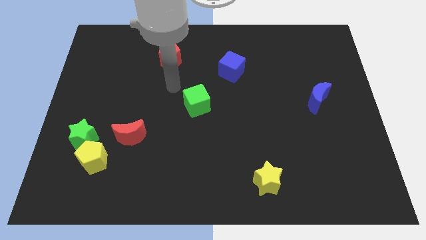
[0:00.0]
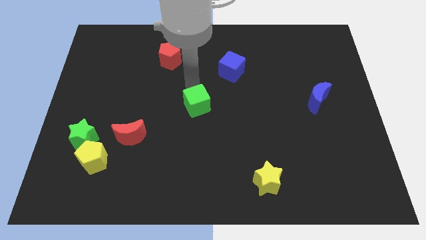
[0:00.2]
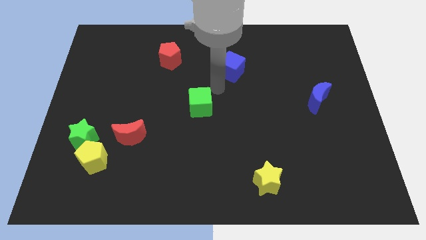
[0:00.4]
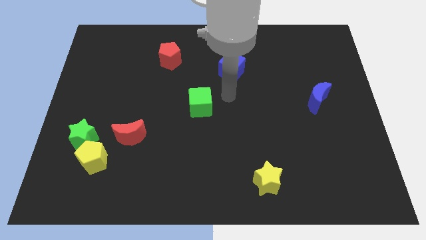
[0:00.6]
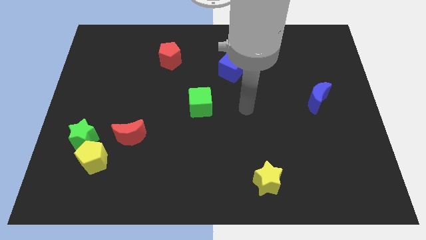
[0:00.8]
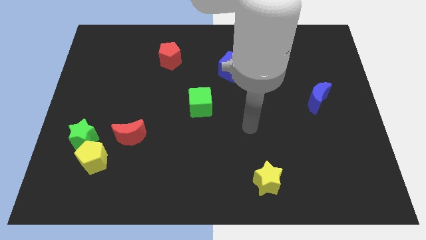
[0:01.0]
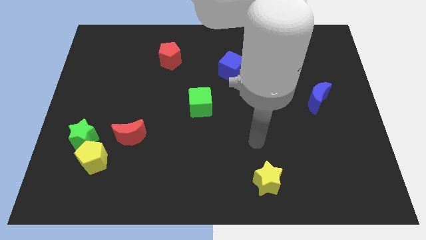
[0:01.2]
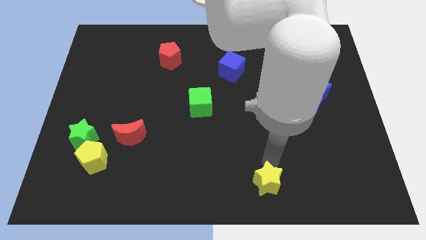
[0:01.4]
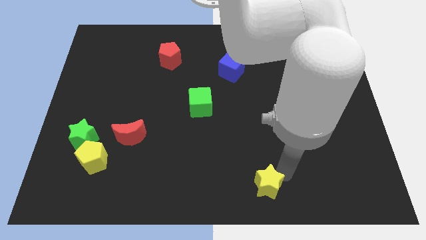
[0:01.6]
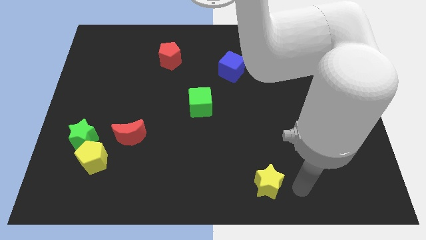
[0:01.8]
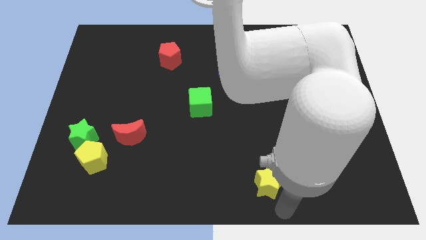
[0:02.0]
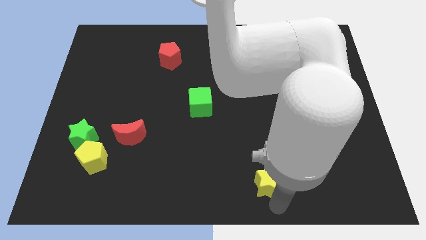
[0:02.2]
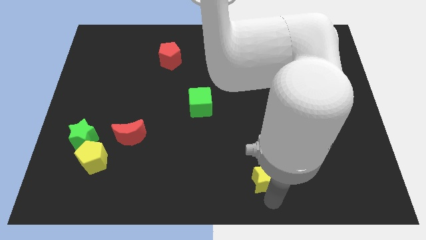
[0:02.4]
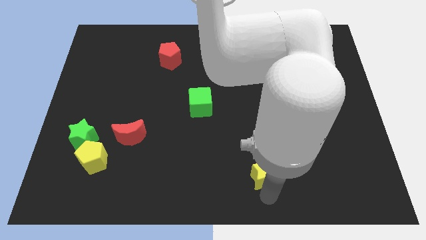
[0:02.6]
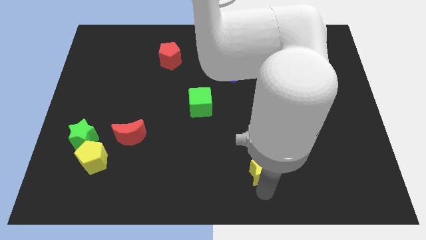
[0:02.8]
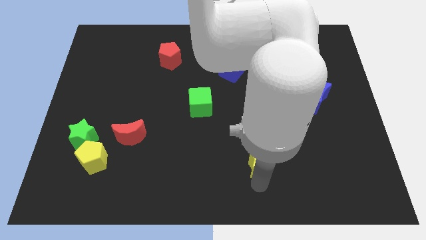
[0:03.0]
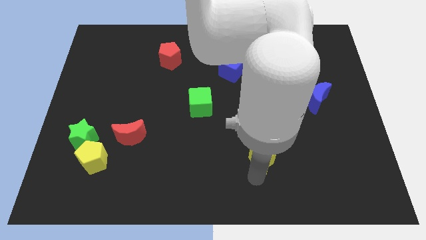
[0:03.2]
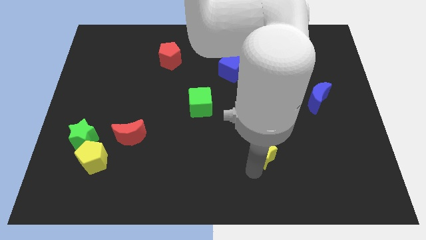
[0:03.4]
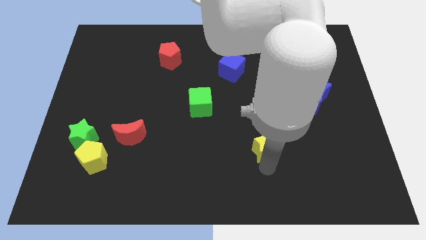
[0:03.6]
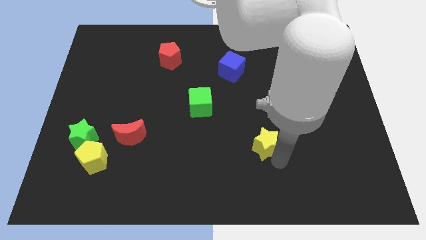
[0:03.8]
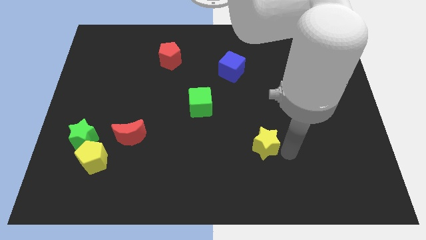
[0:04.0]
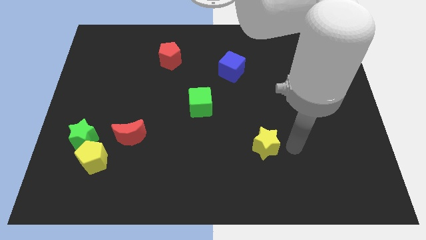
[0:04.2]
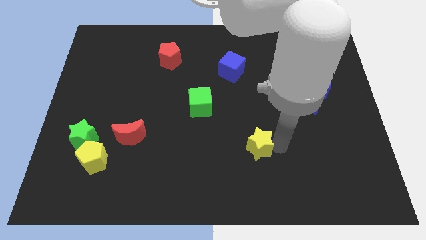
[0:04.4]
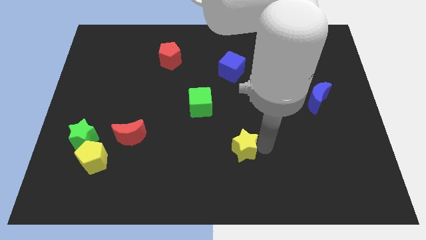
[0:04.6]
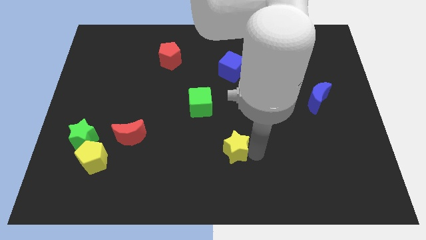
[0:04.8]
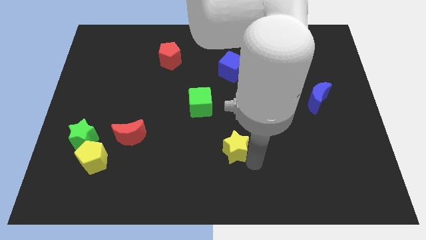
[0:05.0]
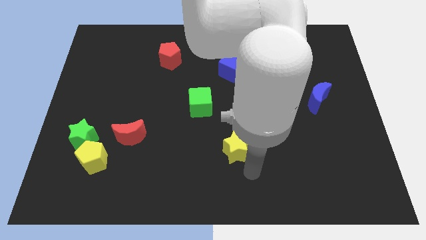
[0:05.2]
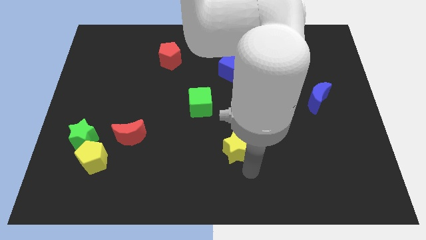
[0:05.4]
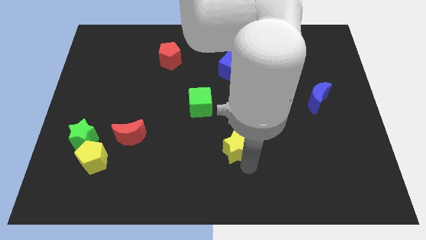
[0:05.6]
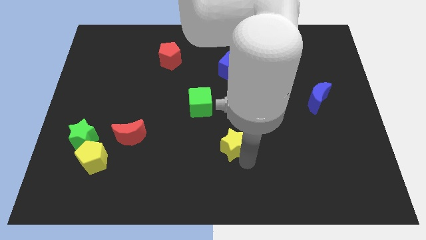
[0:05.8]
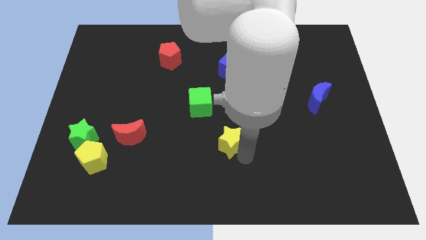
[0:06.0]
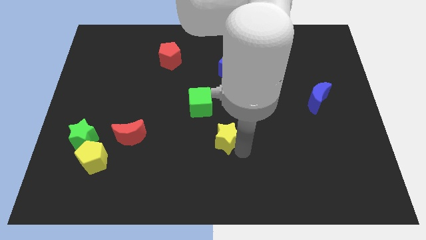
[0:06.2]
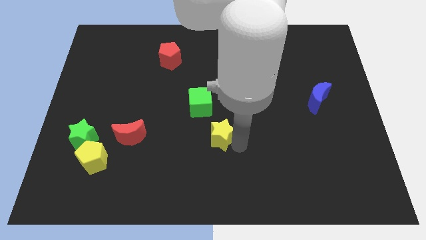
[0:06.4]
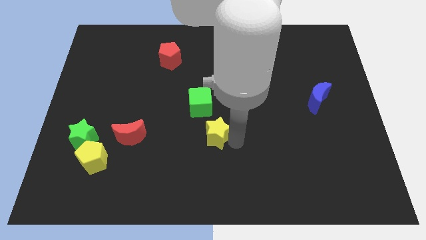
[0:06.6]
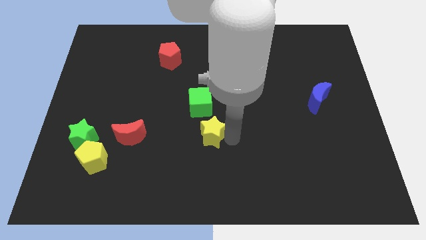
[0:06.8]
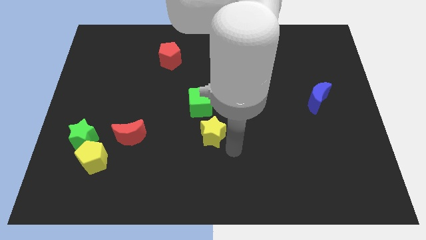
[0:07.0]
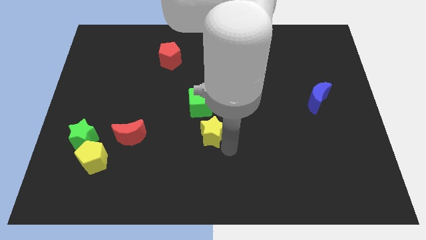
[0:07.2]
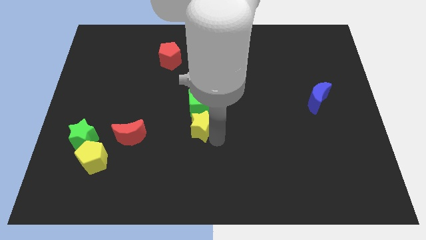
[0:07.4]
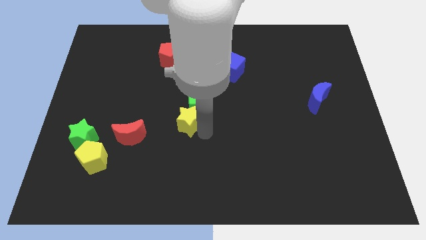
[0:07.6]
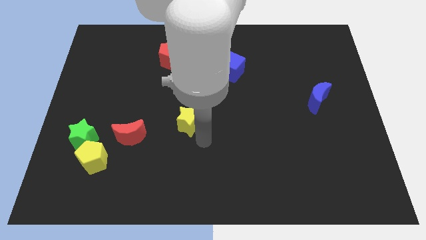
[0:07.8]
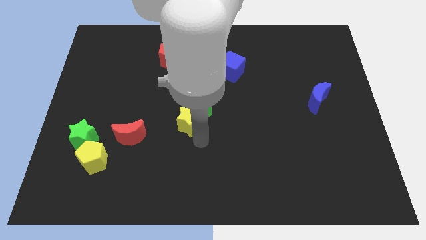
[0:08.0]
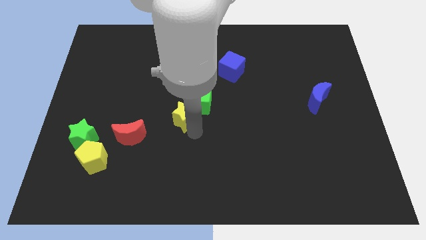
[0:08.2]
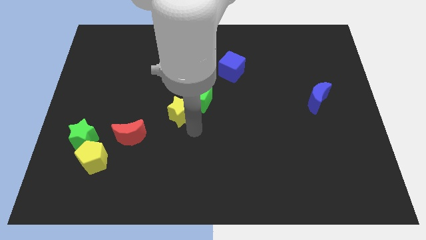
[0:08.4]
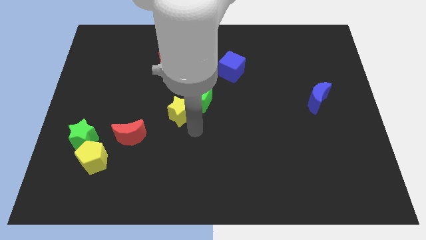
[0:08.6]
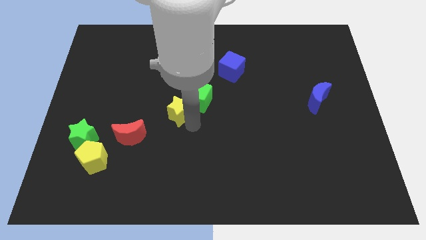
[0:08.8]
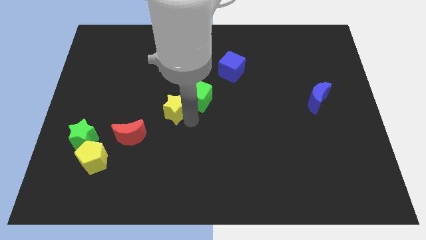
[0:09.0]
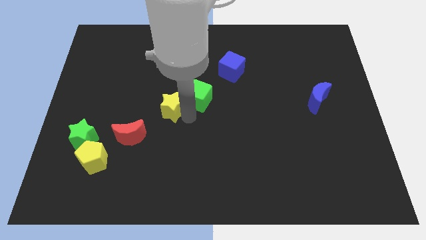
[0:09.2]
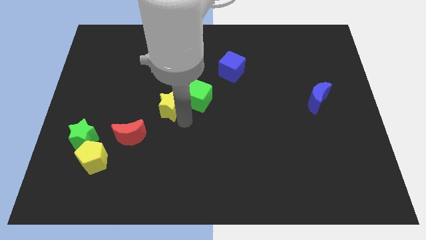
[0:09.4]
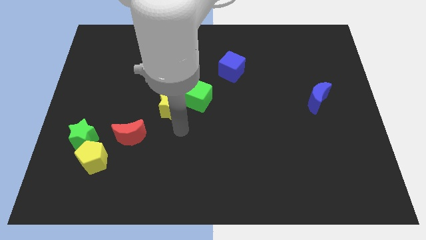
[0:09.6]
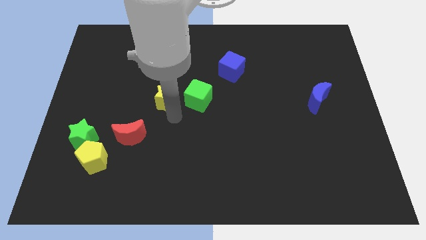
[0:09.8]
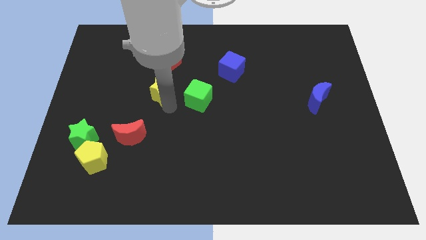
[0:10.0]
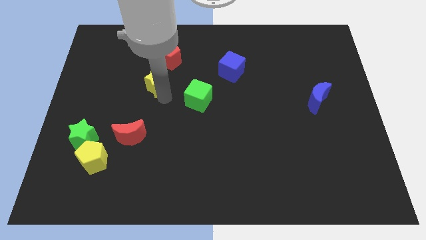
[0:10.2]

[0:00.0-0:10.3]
slide the yellow star to the bottom left side of the red pentagon

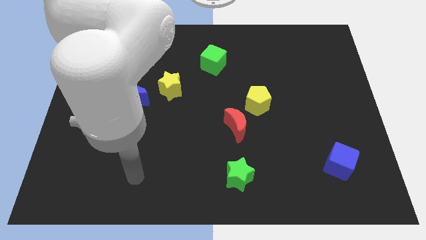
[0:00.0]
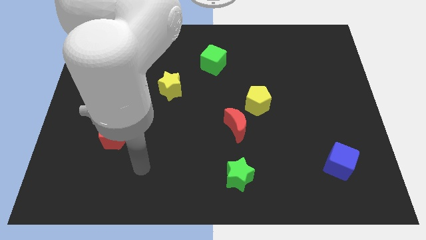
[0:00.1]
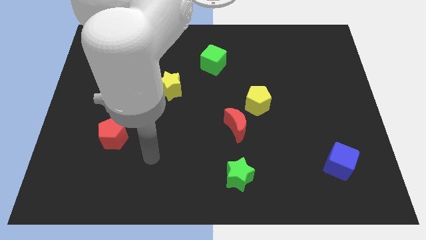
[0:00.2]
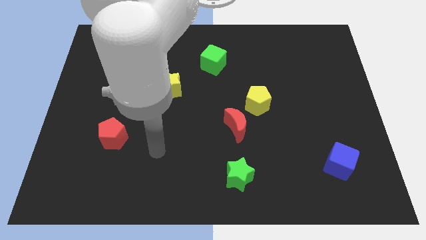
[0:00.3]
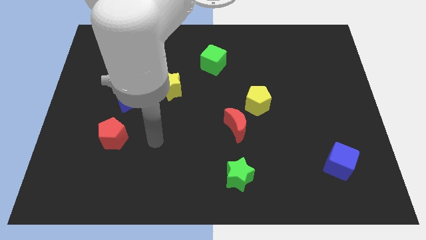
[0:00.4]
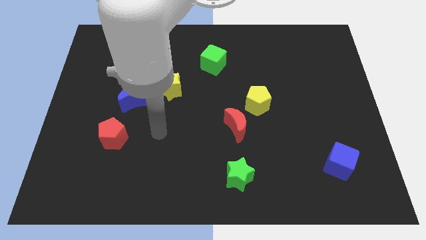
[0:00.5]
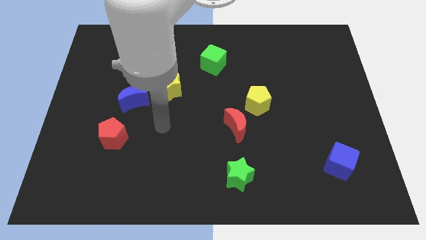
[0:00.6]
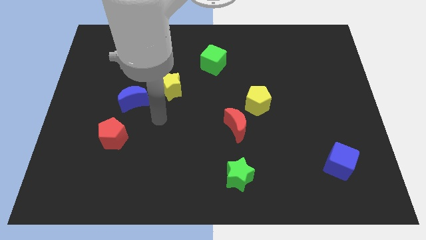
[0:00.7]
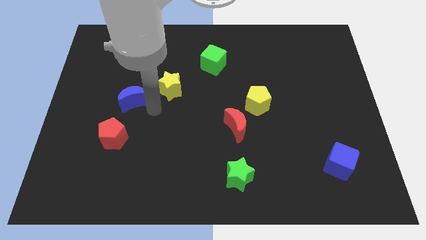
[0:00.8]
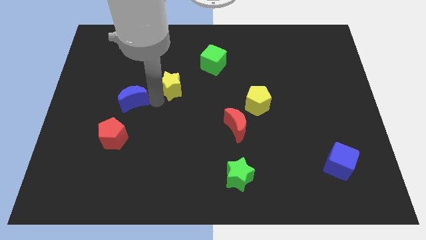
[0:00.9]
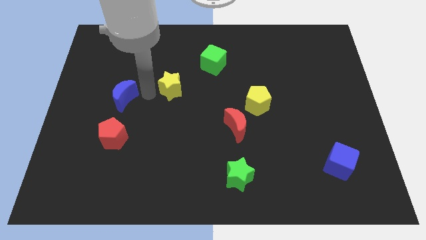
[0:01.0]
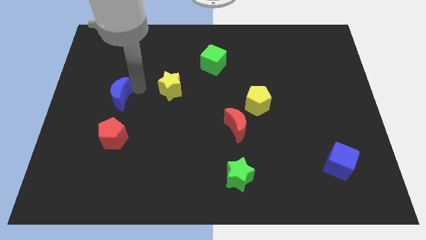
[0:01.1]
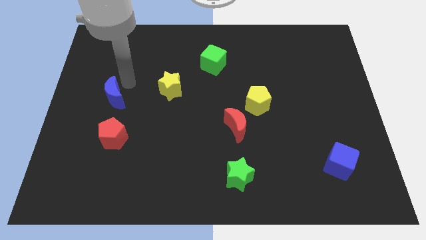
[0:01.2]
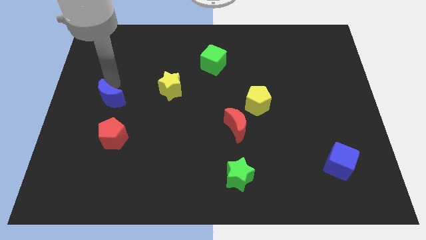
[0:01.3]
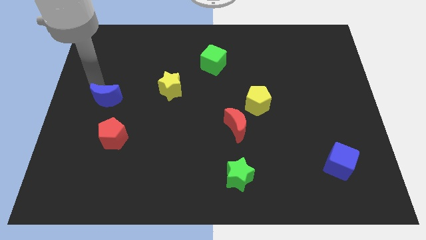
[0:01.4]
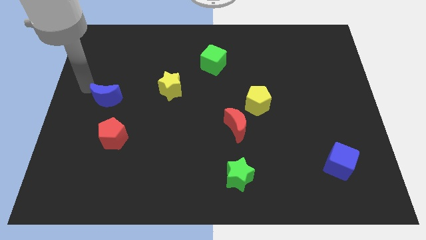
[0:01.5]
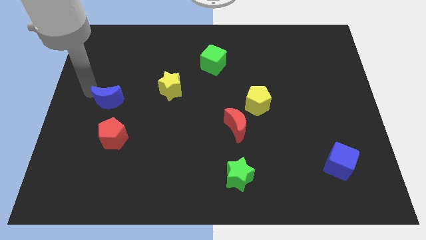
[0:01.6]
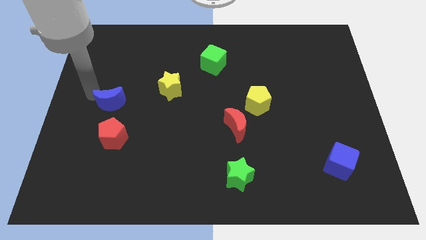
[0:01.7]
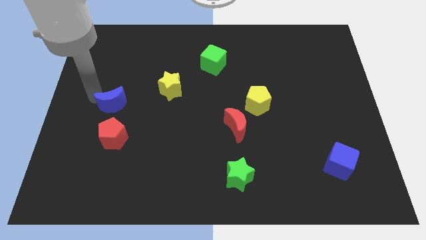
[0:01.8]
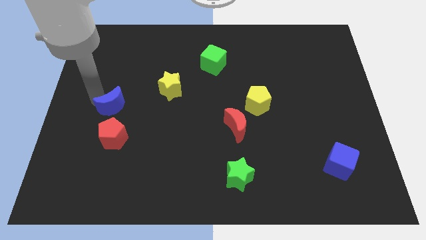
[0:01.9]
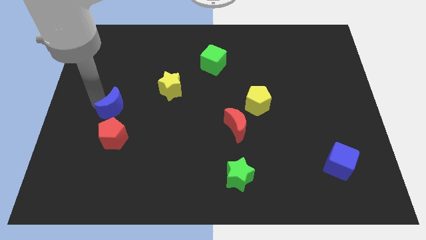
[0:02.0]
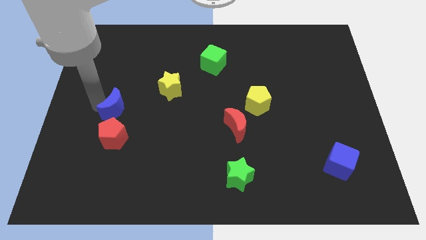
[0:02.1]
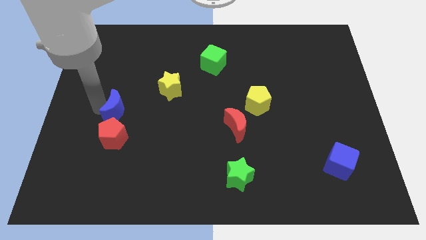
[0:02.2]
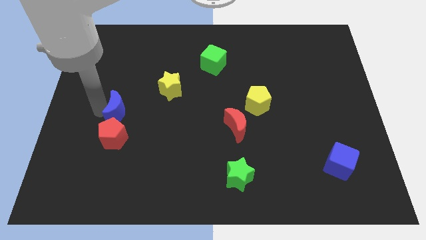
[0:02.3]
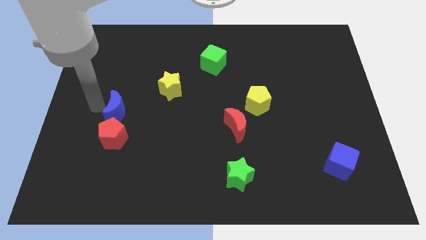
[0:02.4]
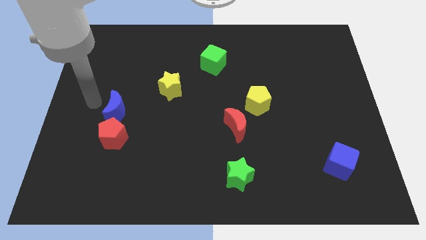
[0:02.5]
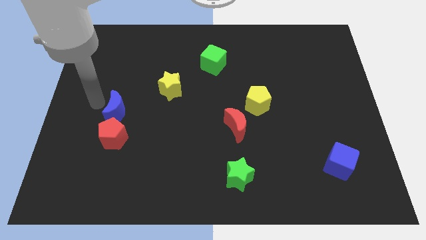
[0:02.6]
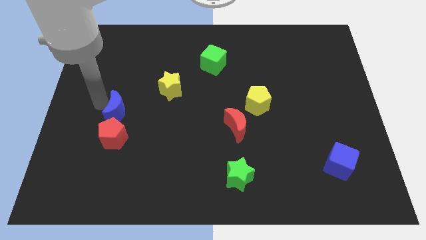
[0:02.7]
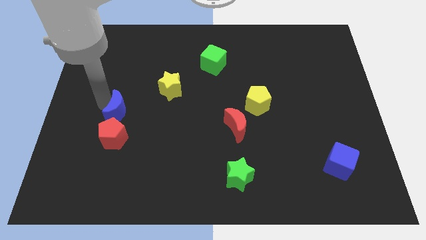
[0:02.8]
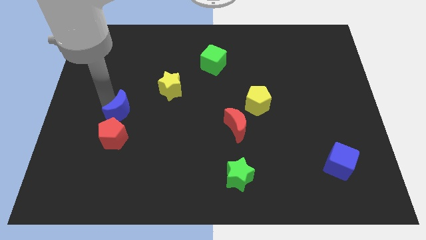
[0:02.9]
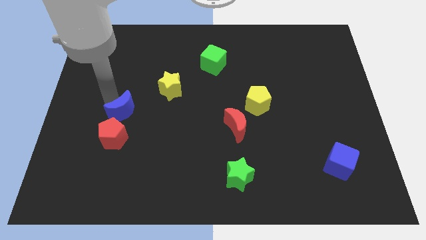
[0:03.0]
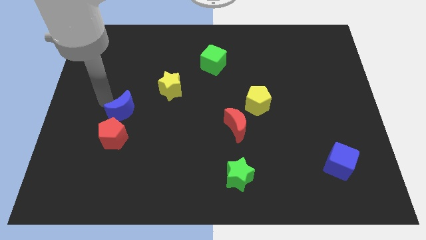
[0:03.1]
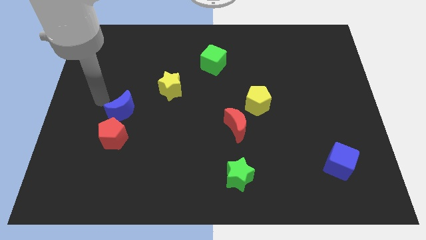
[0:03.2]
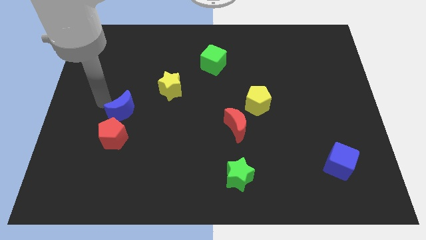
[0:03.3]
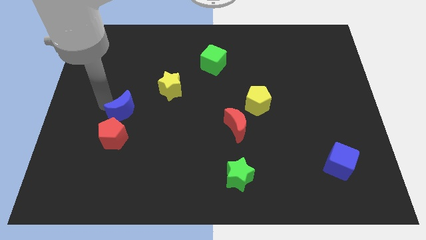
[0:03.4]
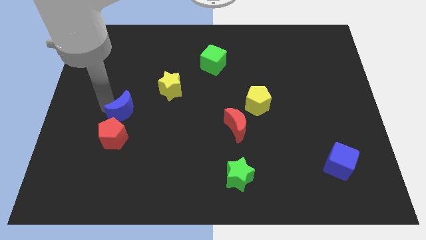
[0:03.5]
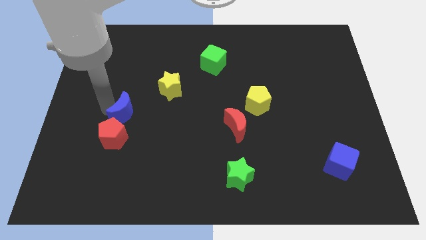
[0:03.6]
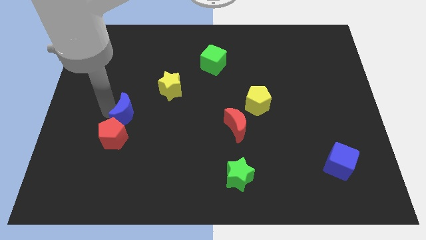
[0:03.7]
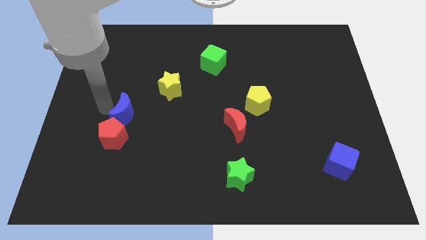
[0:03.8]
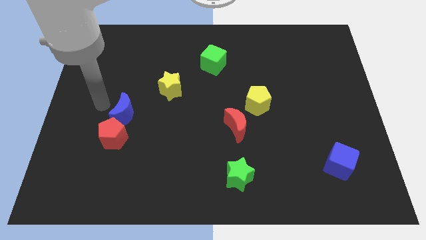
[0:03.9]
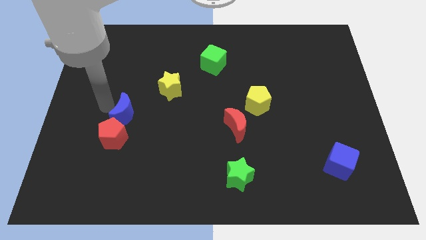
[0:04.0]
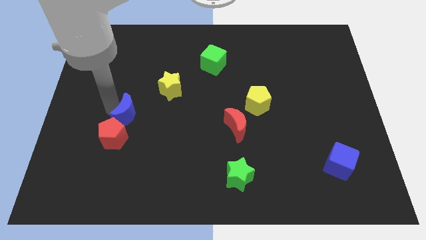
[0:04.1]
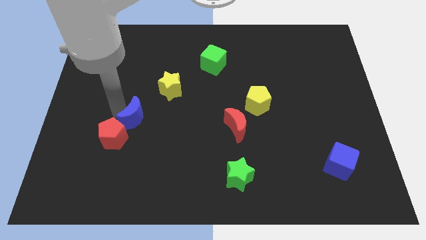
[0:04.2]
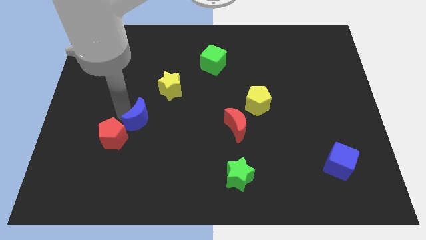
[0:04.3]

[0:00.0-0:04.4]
move the blue moon just right of the red pentagon
